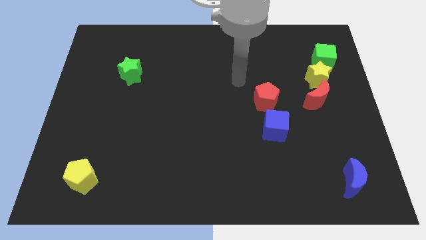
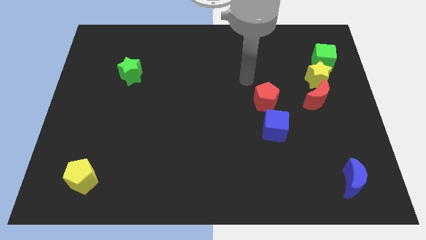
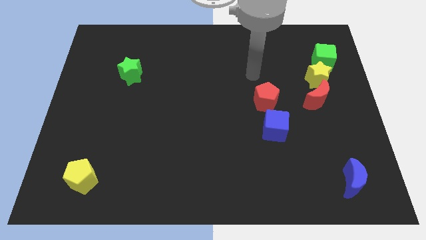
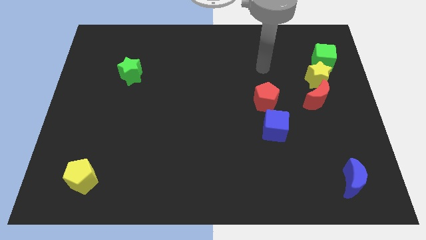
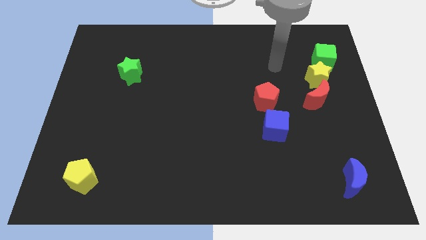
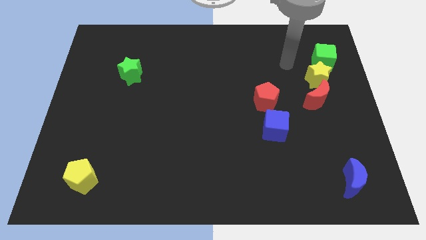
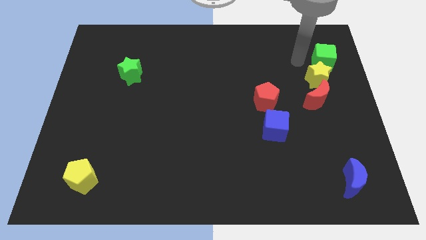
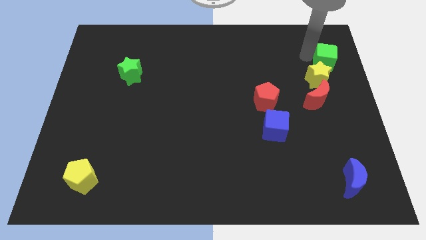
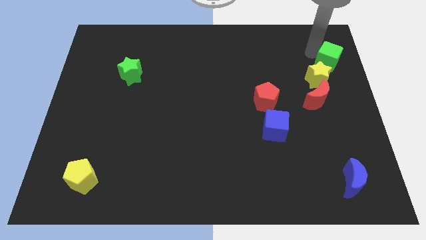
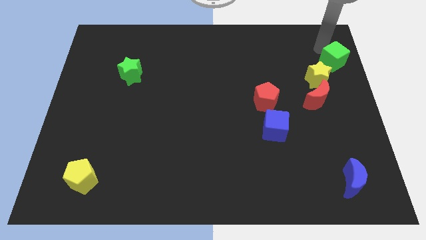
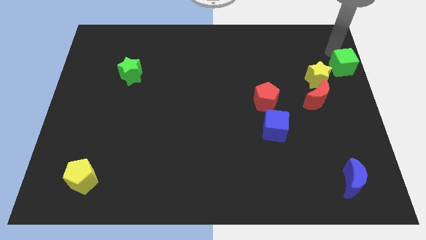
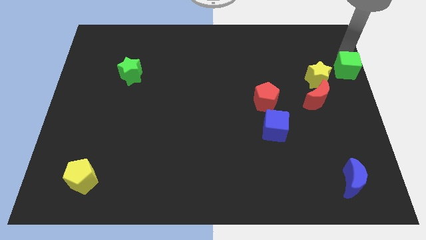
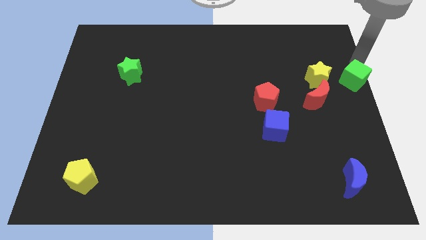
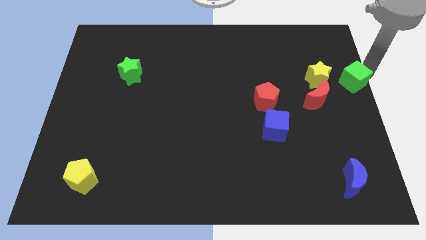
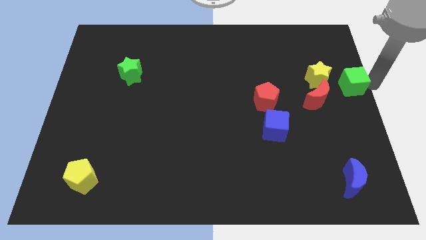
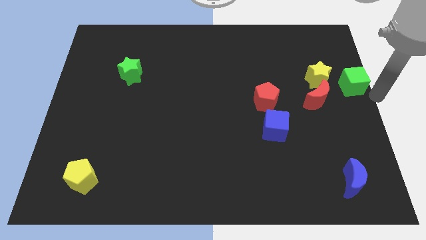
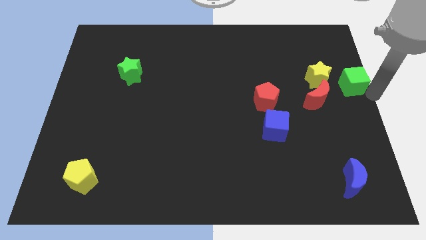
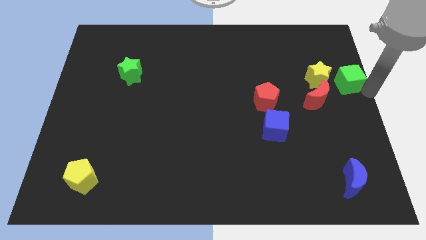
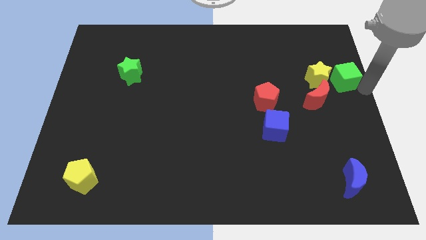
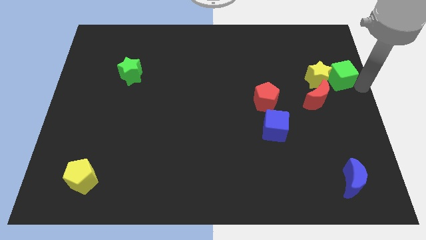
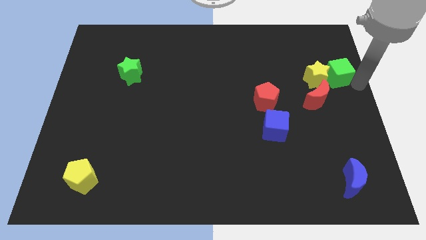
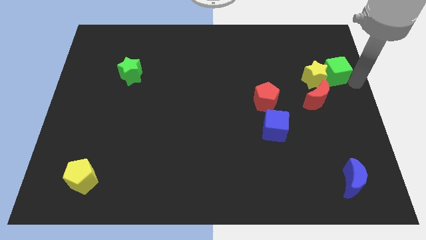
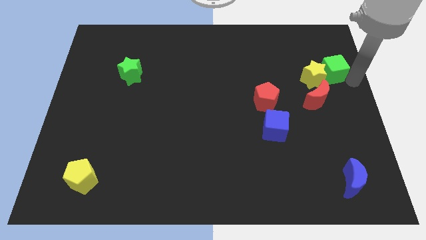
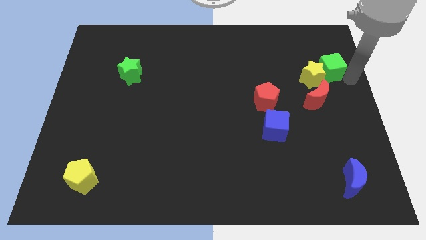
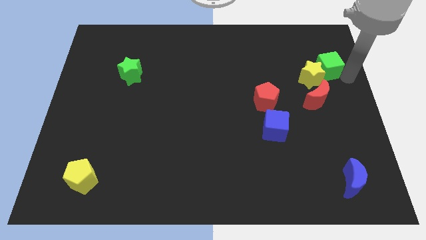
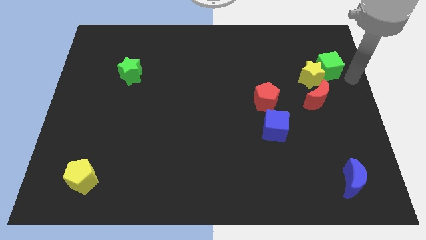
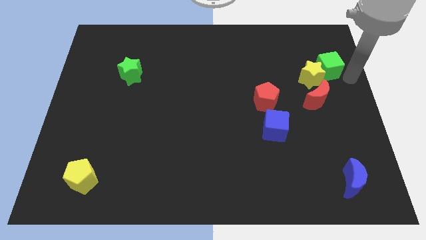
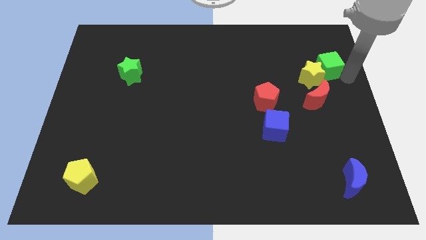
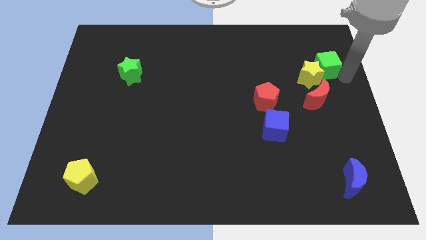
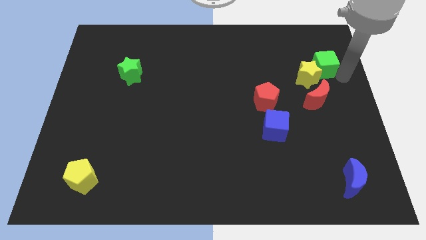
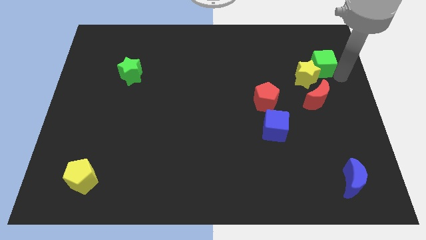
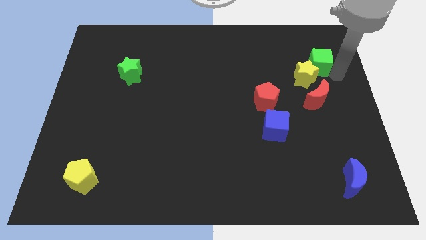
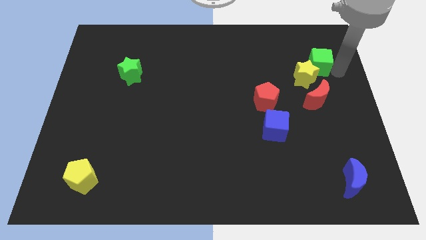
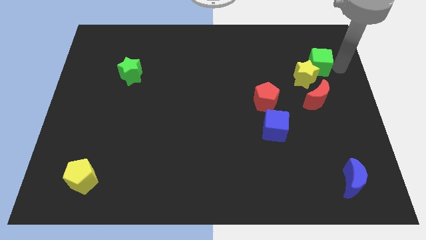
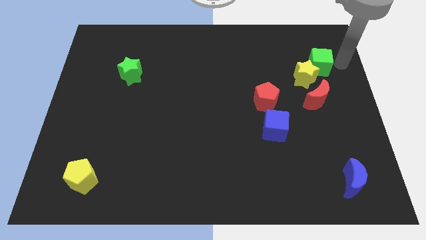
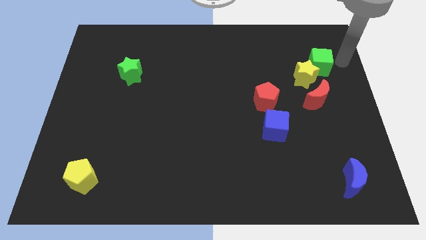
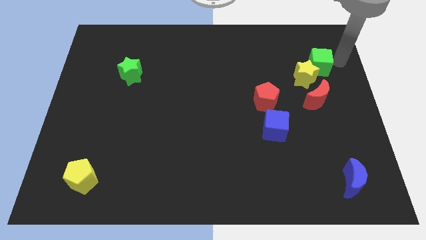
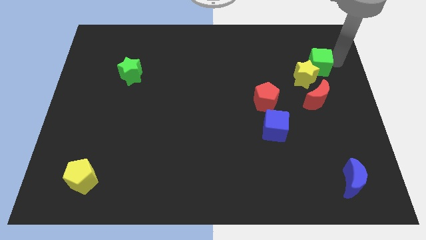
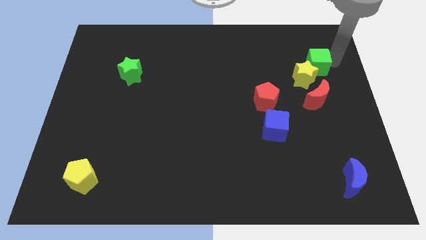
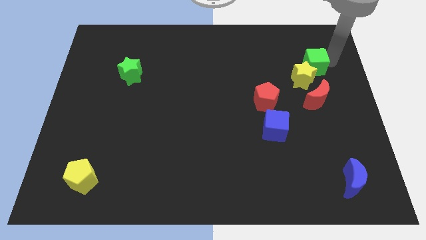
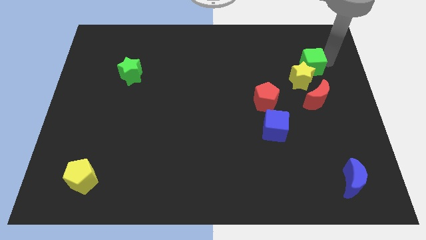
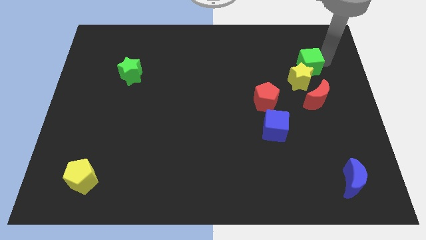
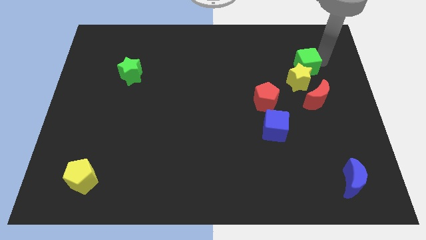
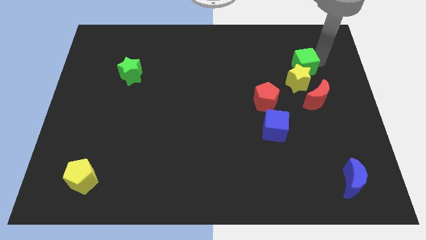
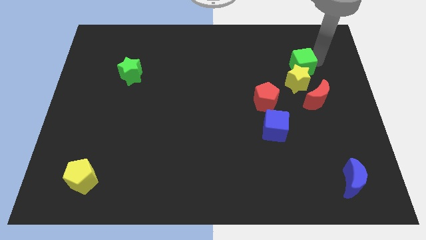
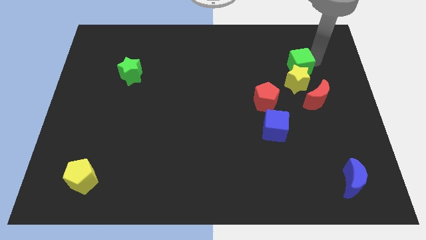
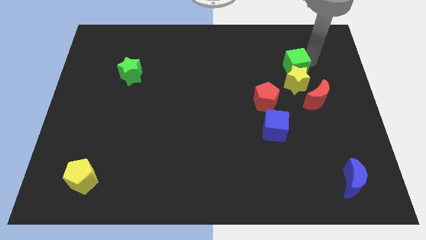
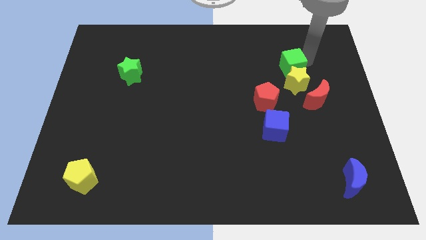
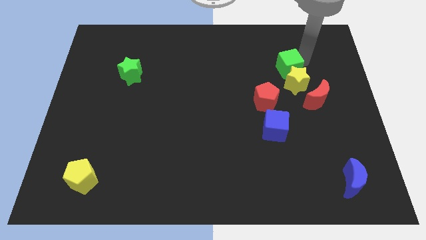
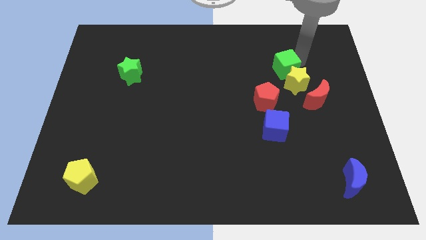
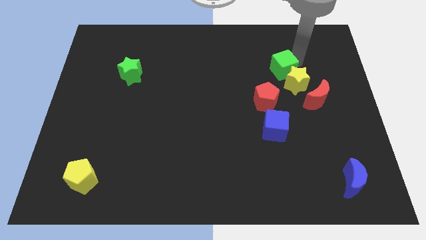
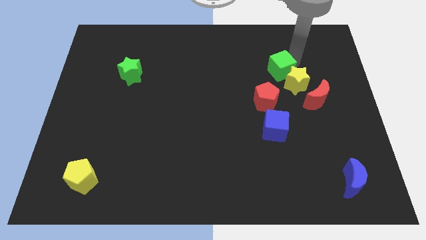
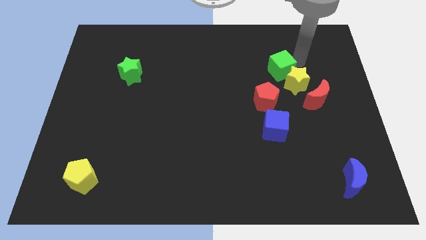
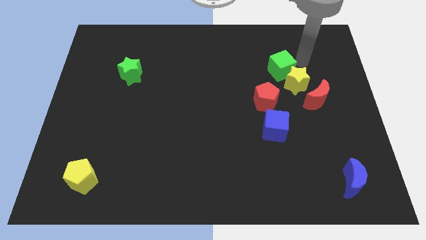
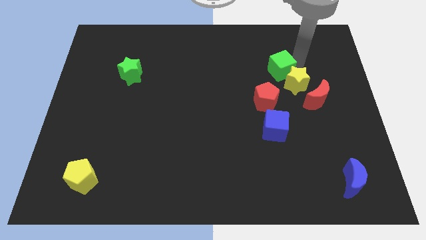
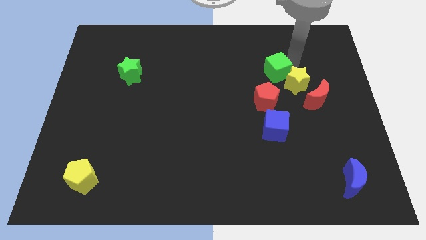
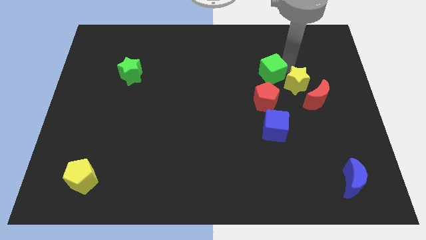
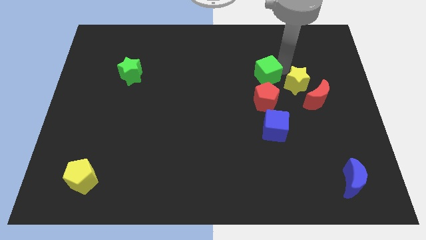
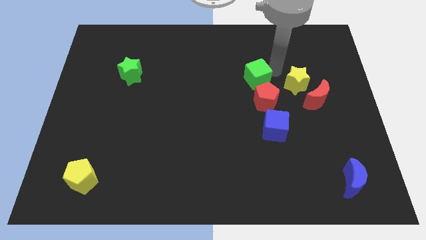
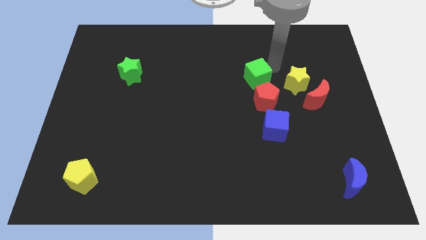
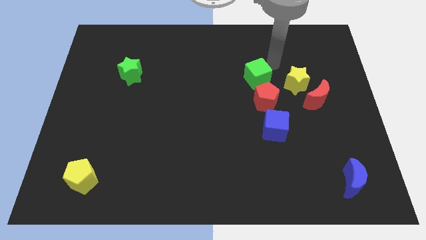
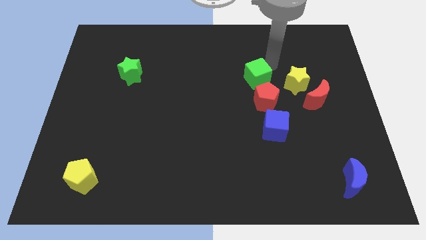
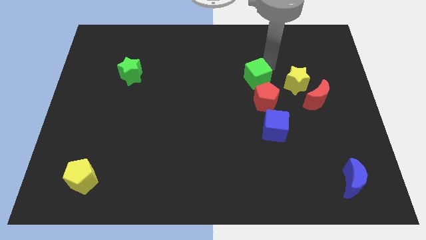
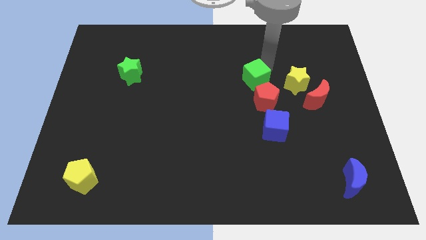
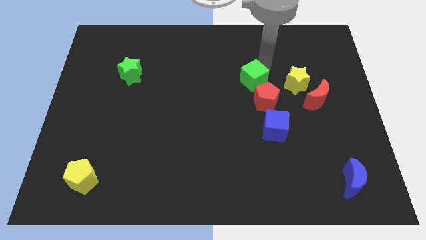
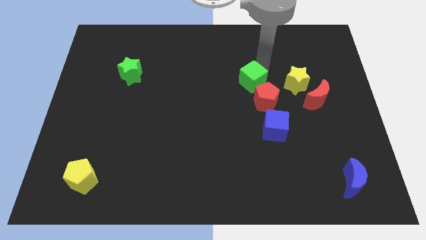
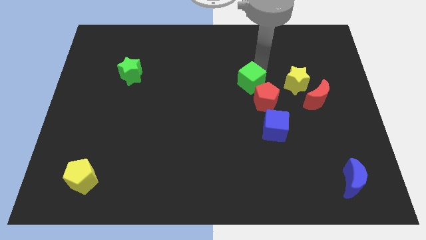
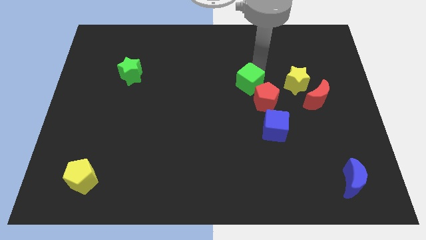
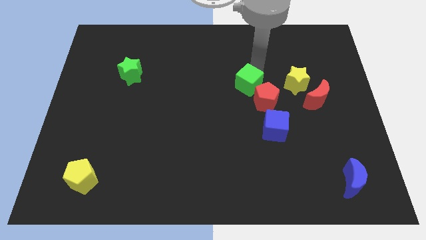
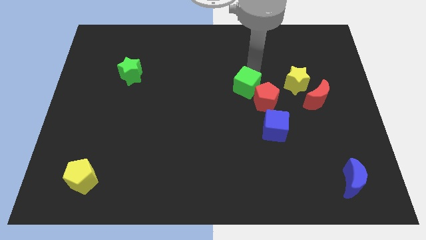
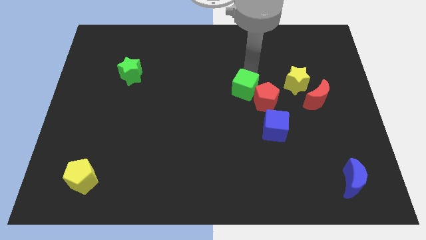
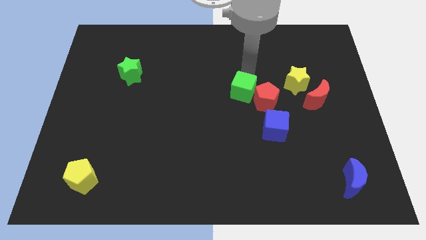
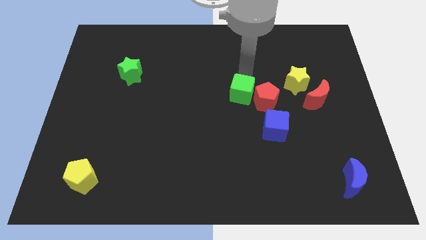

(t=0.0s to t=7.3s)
push the green cube down and left

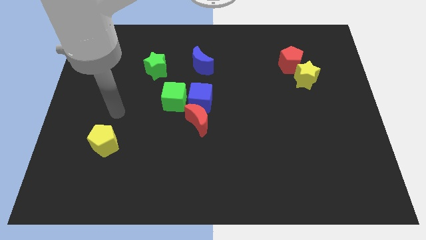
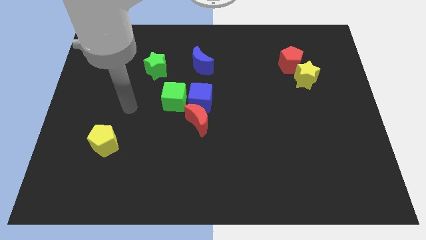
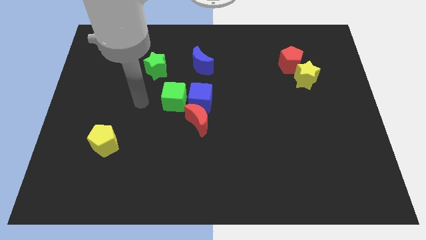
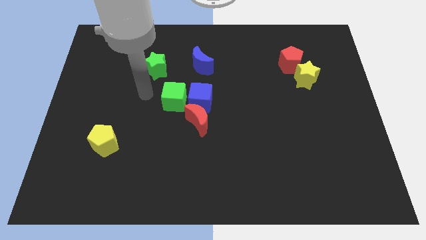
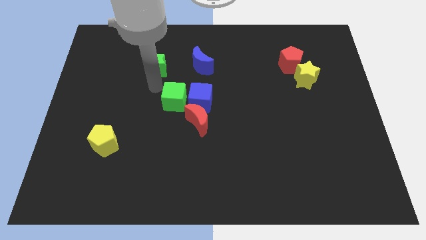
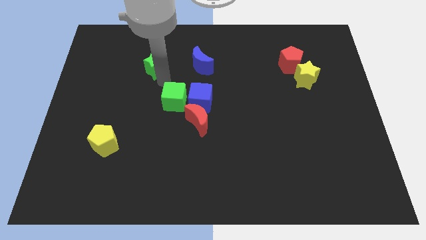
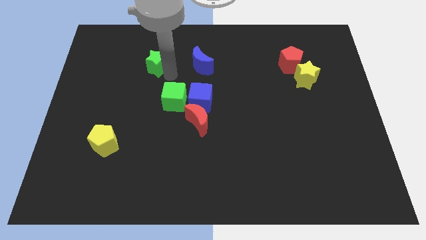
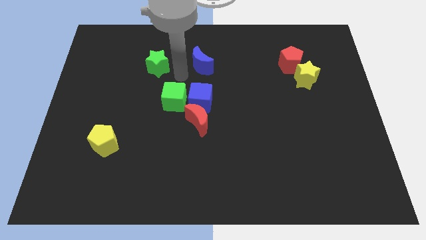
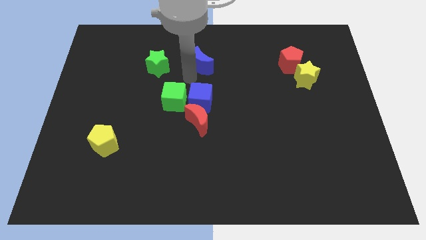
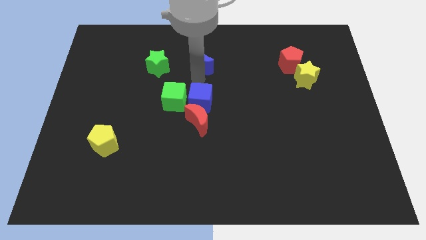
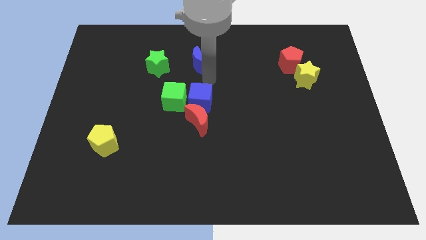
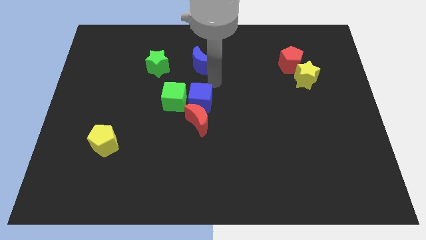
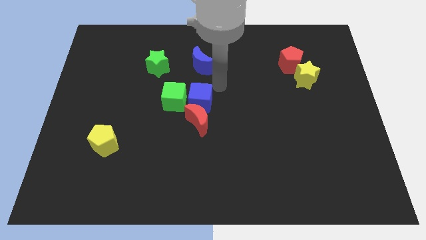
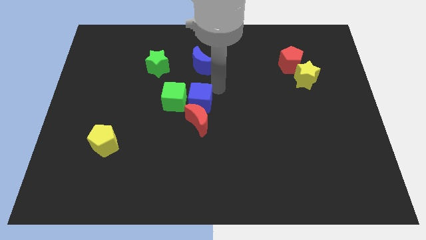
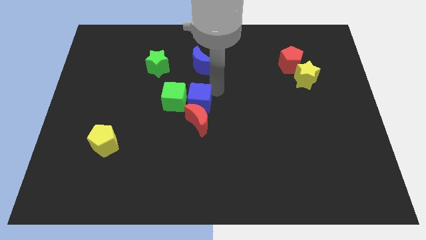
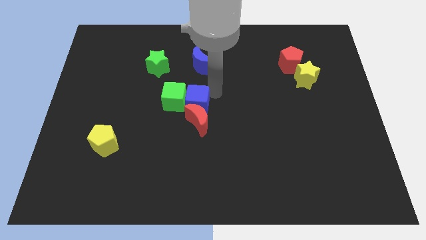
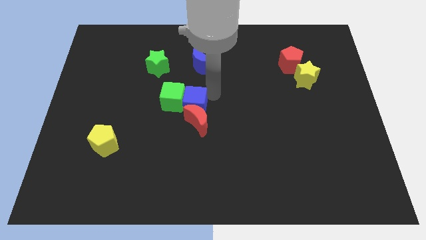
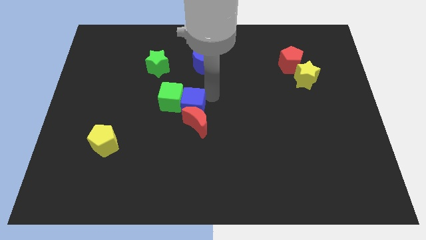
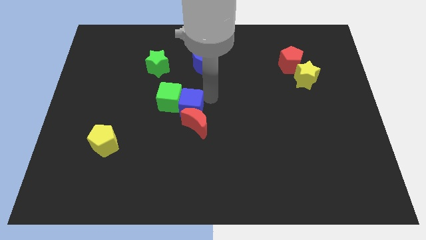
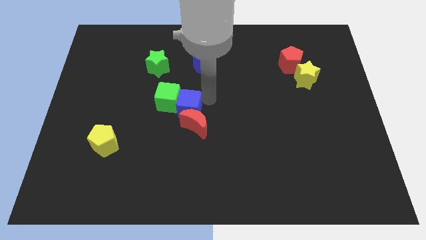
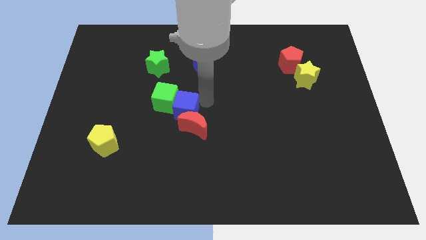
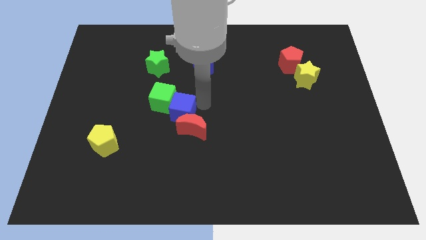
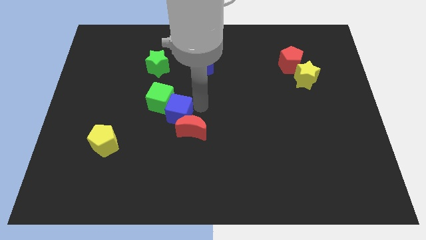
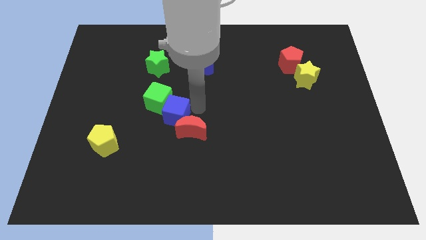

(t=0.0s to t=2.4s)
move the blue cube slightly down and to the left diagonally
